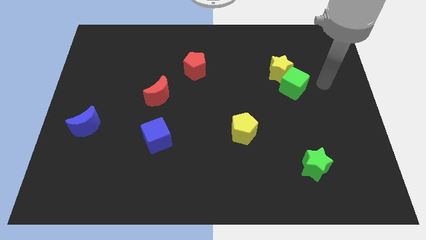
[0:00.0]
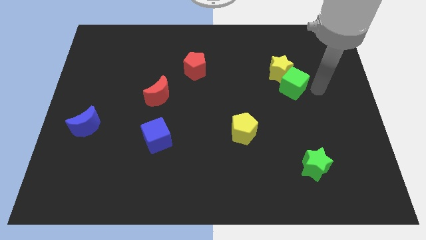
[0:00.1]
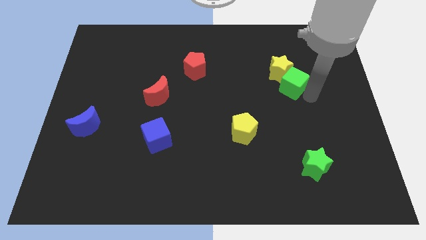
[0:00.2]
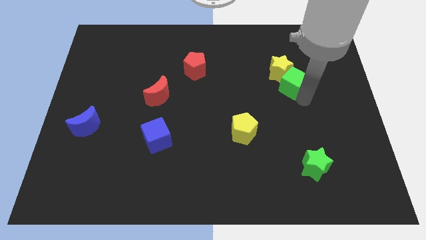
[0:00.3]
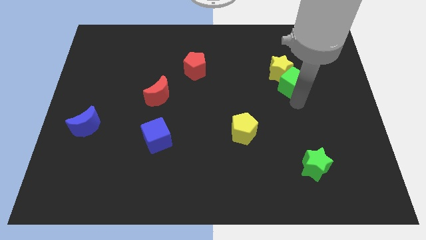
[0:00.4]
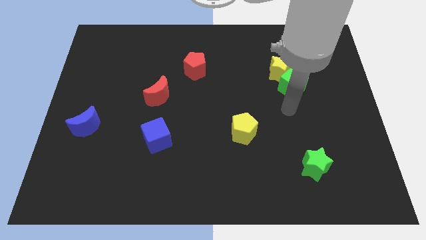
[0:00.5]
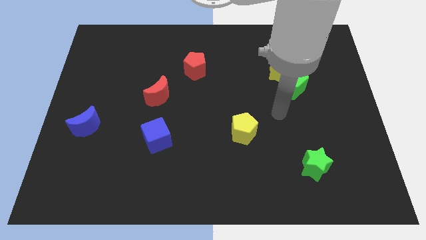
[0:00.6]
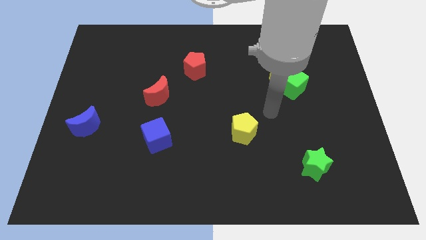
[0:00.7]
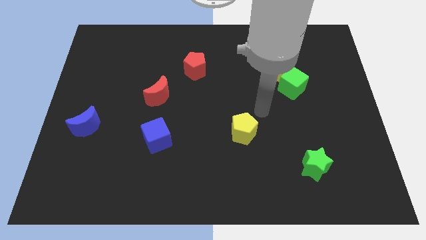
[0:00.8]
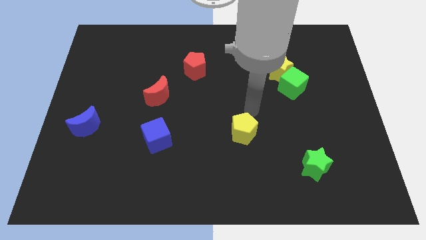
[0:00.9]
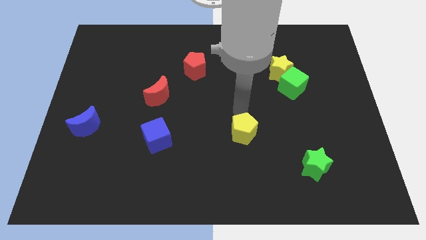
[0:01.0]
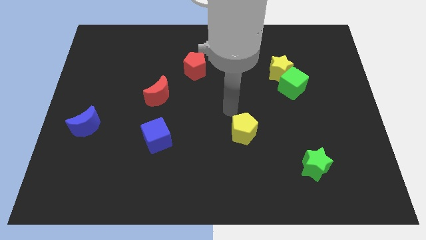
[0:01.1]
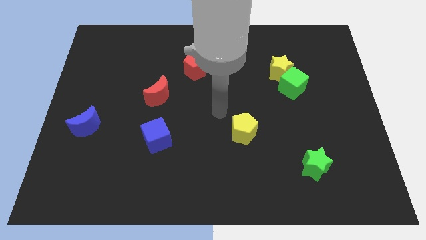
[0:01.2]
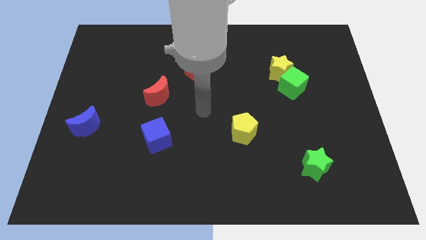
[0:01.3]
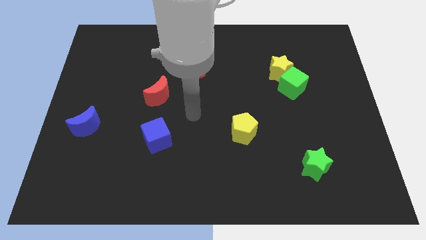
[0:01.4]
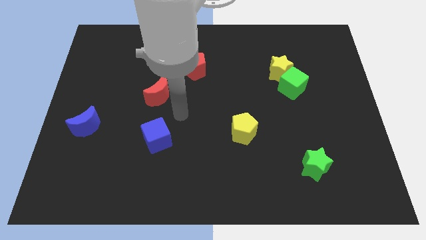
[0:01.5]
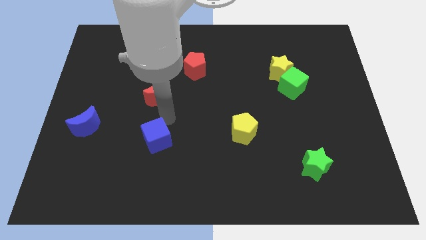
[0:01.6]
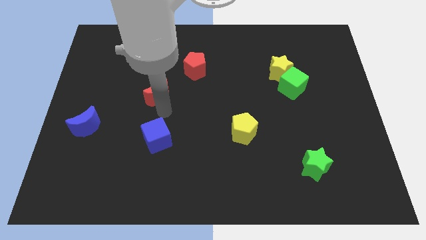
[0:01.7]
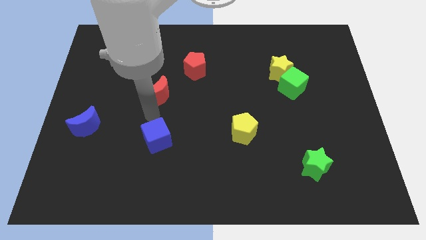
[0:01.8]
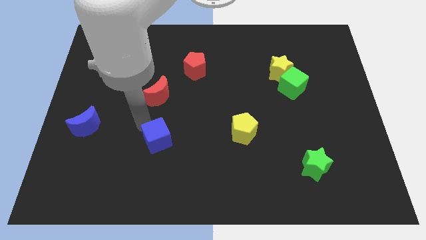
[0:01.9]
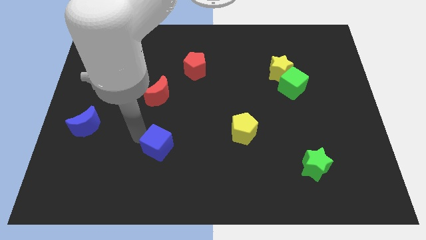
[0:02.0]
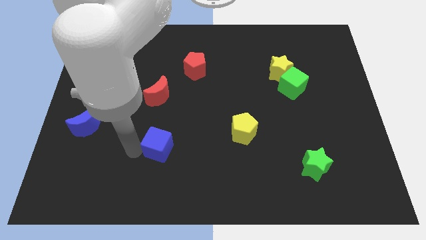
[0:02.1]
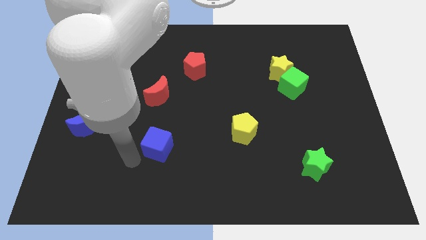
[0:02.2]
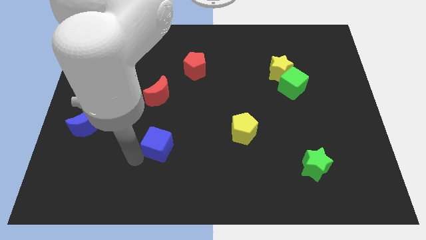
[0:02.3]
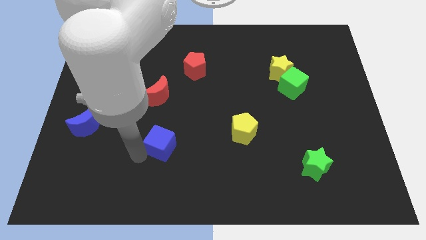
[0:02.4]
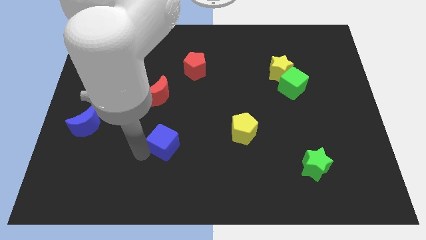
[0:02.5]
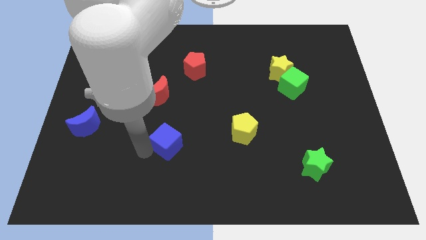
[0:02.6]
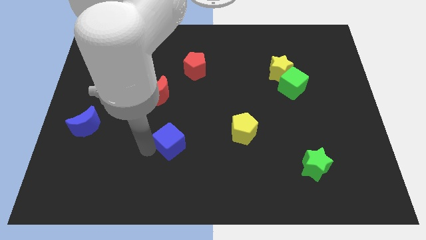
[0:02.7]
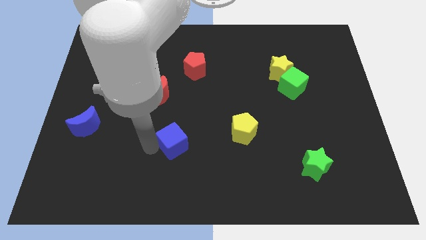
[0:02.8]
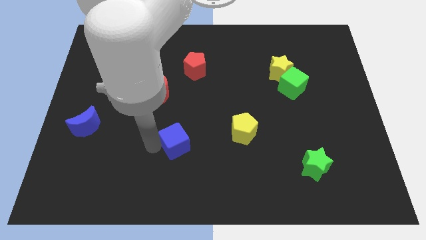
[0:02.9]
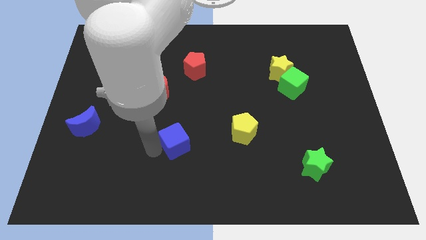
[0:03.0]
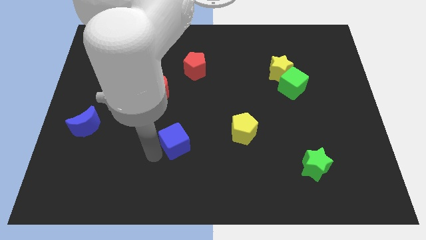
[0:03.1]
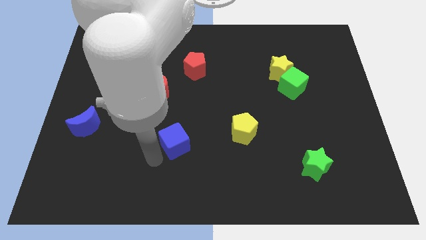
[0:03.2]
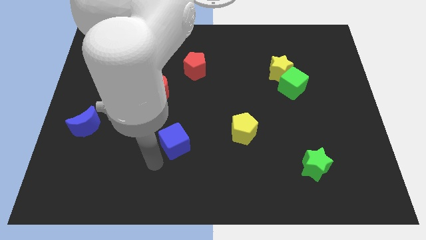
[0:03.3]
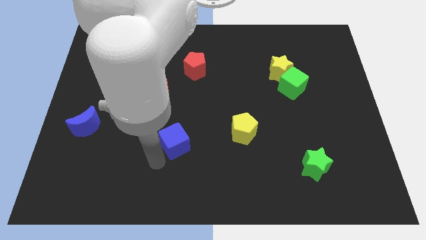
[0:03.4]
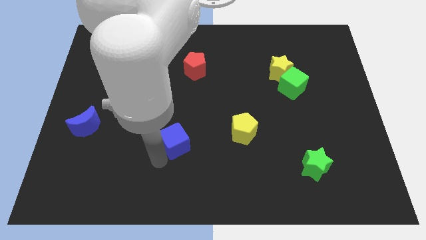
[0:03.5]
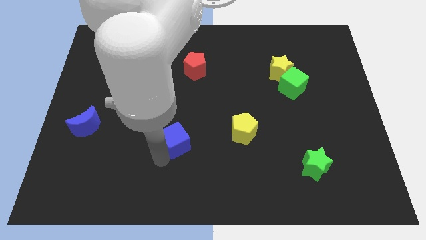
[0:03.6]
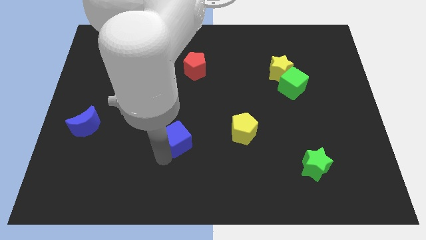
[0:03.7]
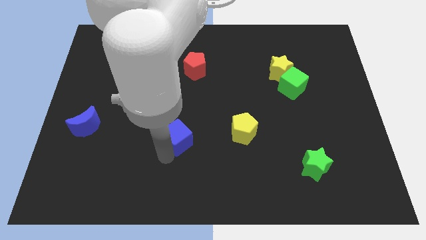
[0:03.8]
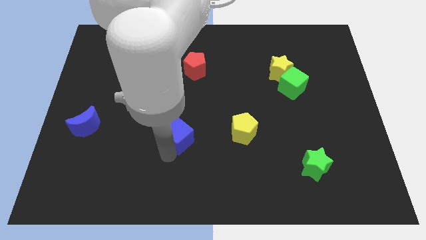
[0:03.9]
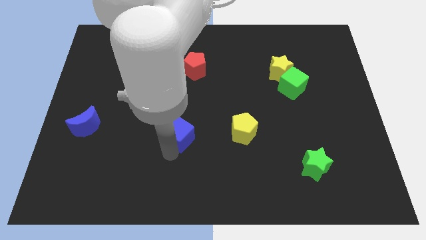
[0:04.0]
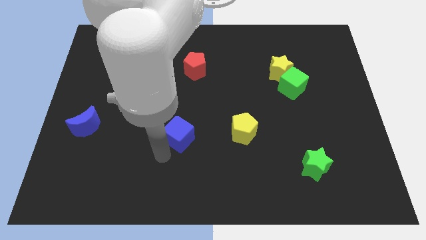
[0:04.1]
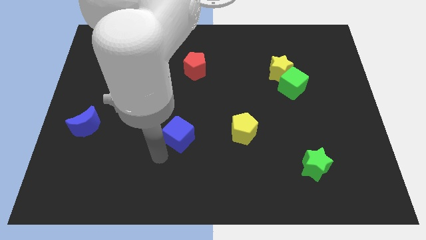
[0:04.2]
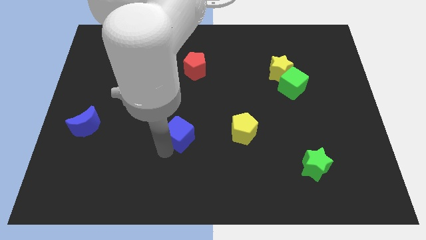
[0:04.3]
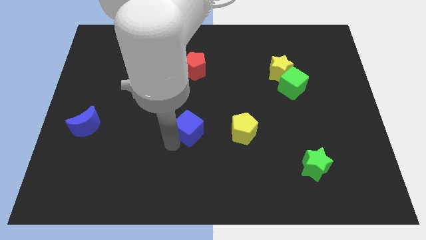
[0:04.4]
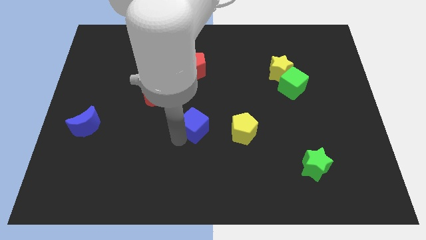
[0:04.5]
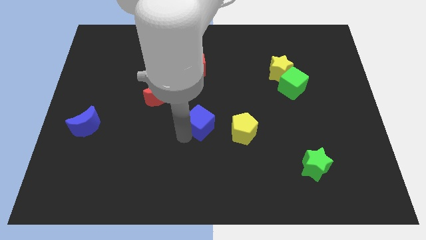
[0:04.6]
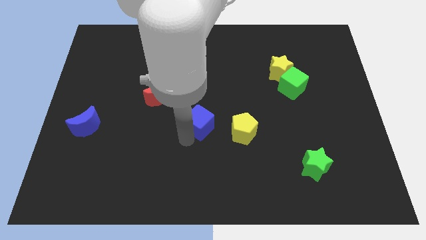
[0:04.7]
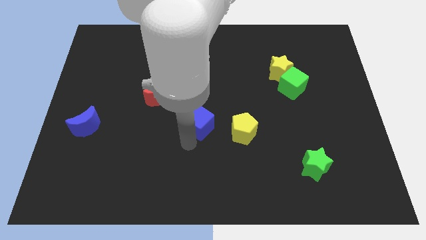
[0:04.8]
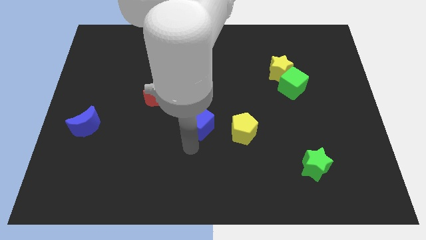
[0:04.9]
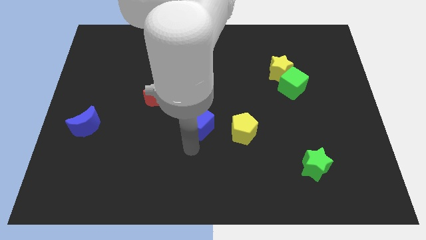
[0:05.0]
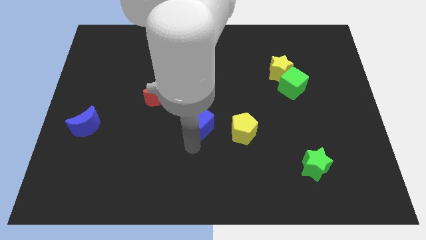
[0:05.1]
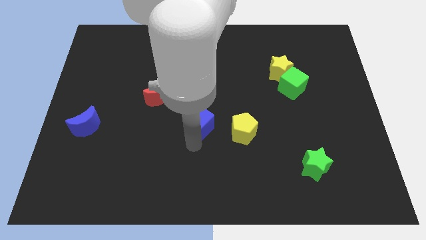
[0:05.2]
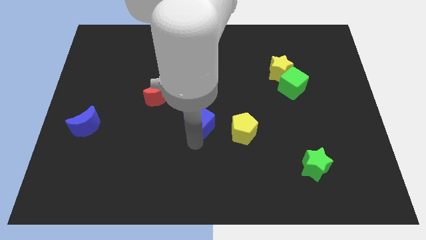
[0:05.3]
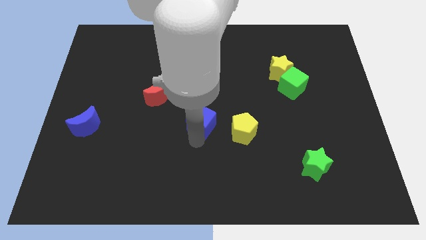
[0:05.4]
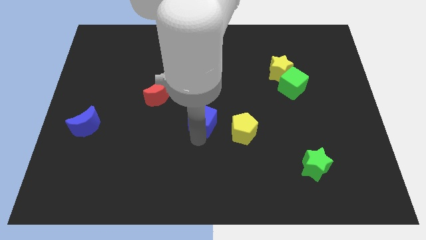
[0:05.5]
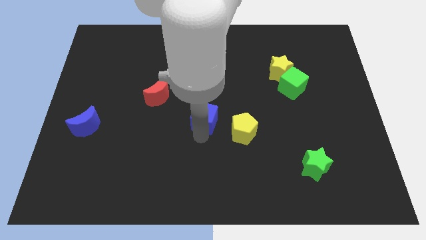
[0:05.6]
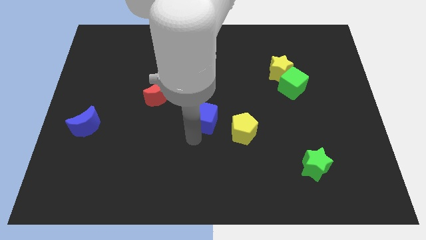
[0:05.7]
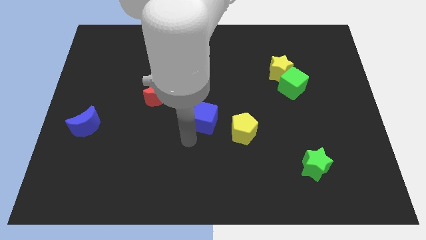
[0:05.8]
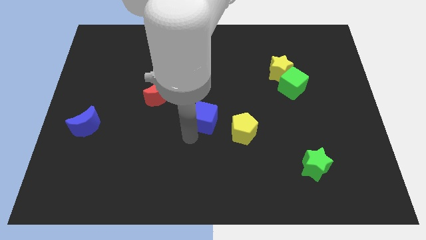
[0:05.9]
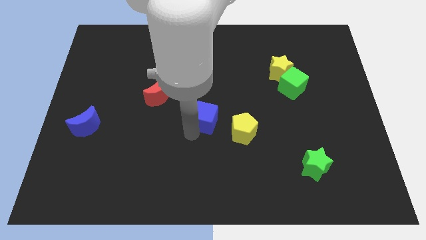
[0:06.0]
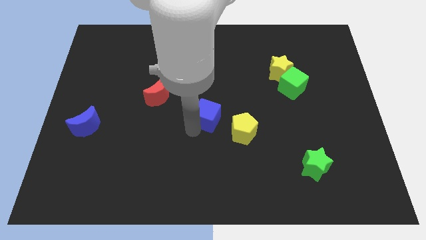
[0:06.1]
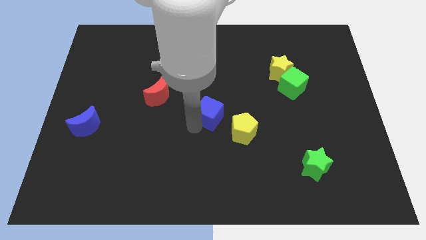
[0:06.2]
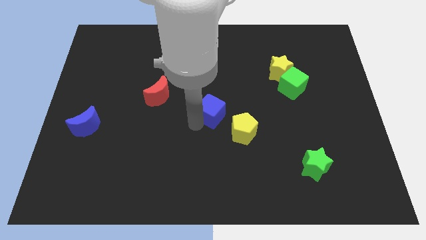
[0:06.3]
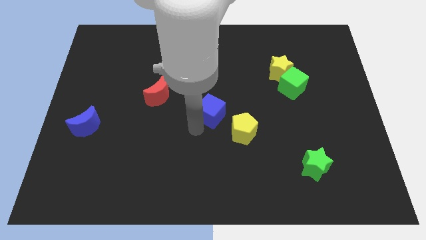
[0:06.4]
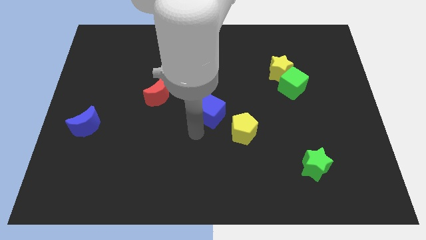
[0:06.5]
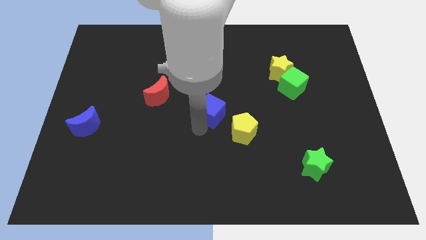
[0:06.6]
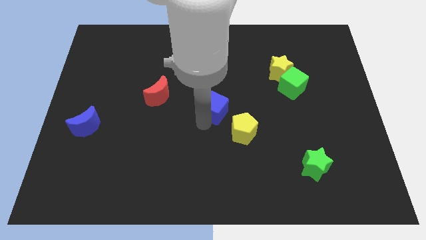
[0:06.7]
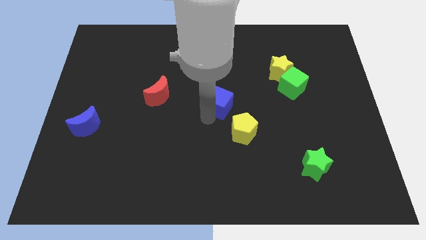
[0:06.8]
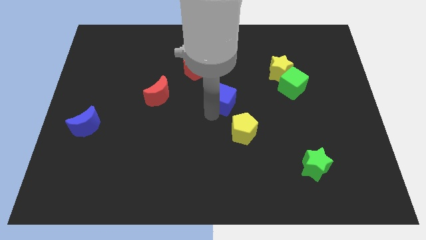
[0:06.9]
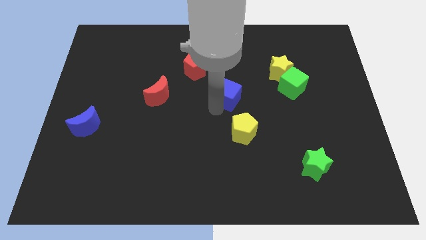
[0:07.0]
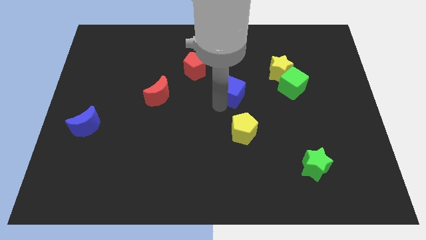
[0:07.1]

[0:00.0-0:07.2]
slide the blue cube upwards and then right

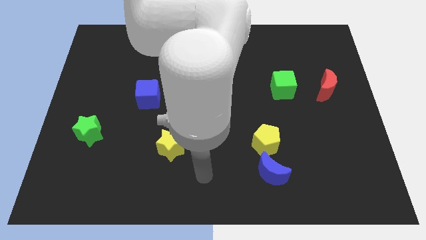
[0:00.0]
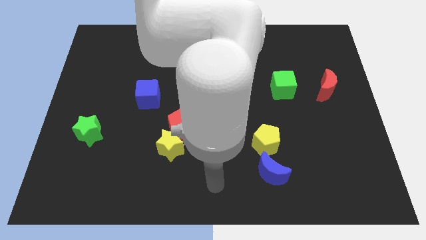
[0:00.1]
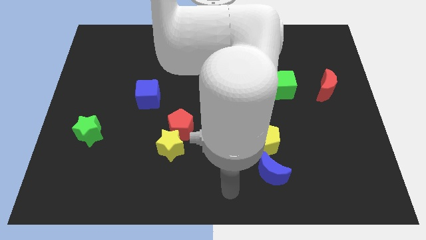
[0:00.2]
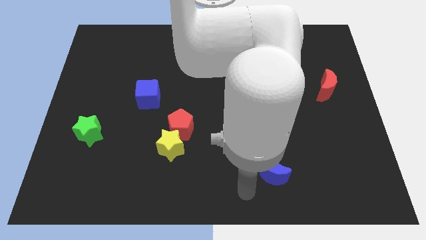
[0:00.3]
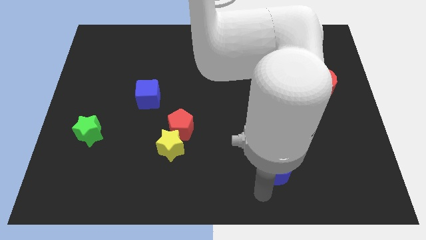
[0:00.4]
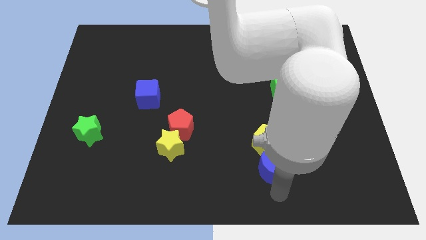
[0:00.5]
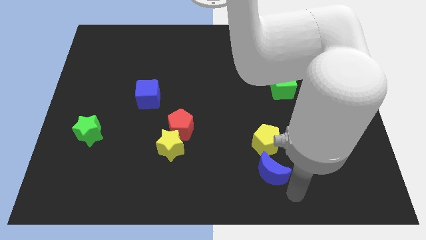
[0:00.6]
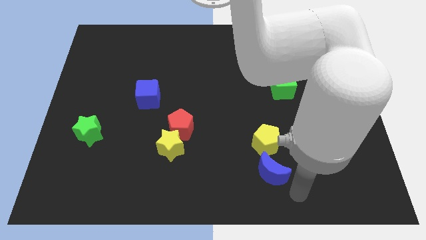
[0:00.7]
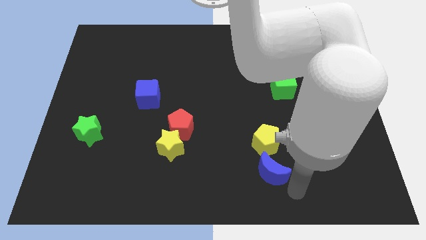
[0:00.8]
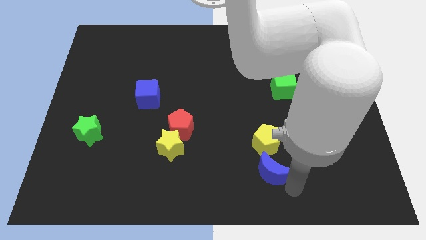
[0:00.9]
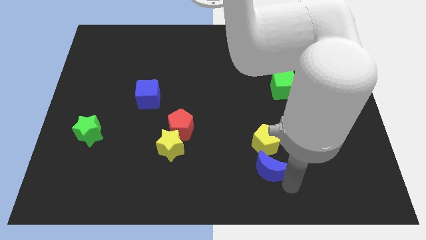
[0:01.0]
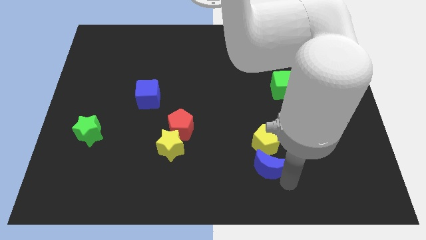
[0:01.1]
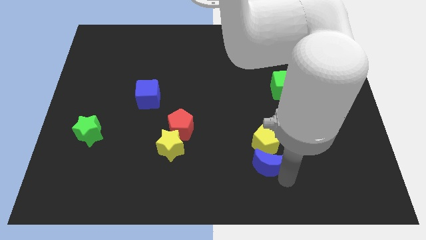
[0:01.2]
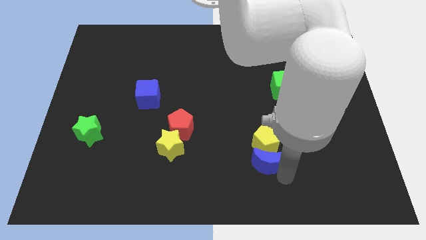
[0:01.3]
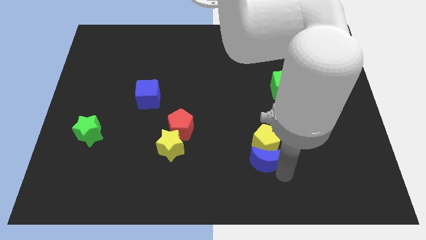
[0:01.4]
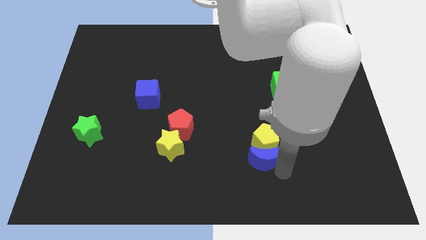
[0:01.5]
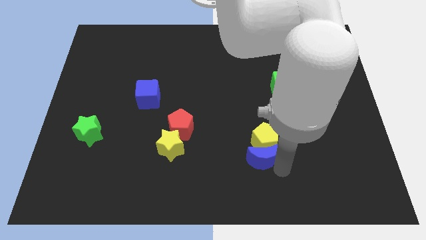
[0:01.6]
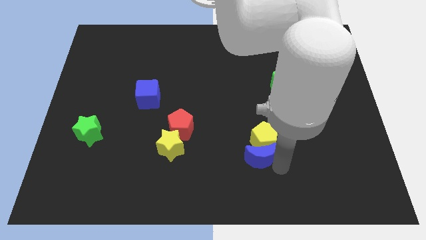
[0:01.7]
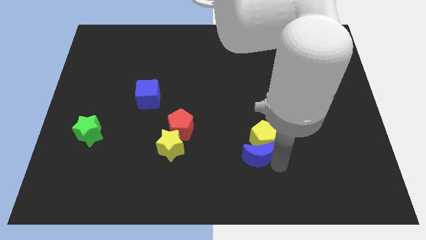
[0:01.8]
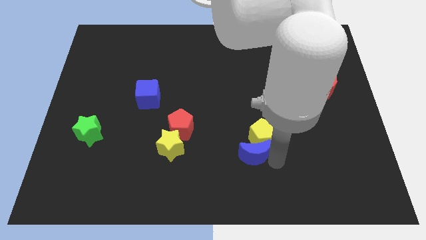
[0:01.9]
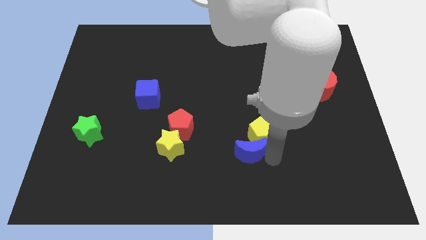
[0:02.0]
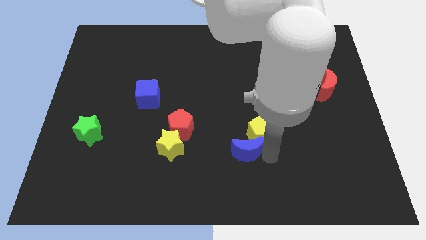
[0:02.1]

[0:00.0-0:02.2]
push the blue moon up and then left somewhat
